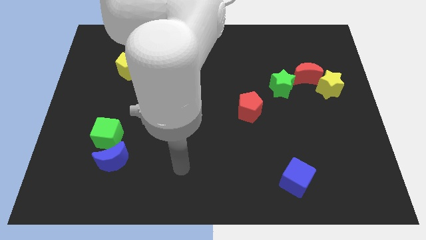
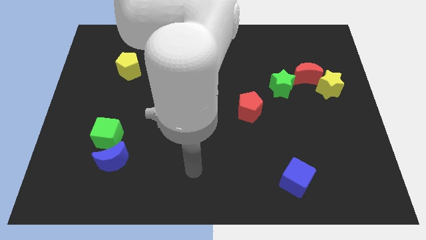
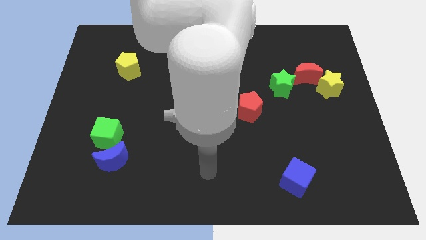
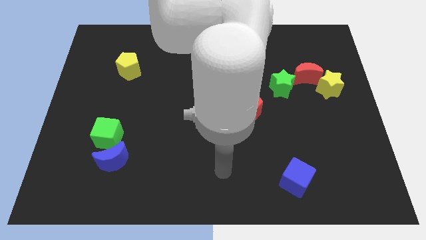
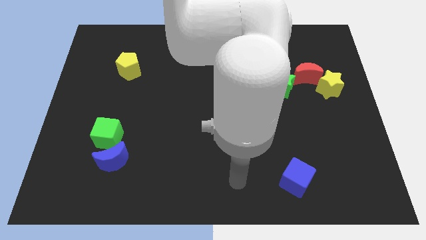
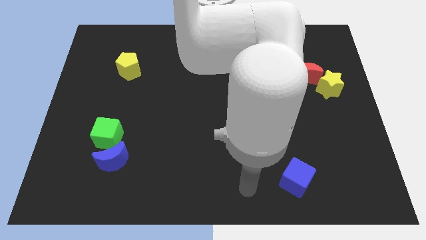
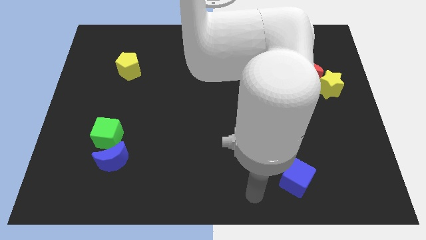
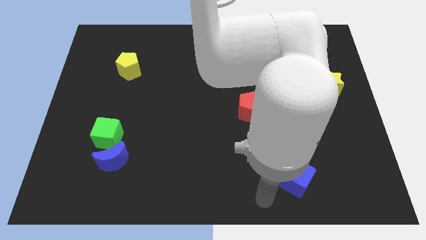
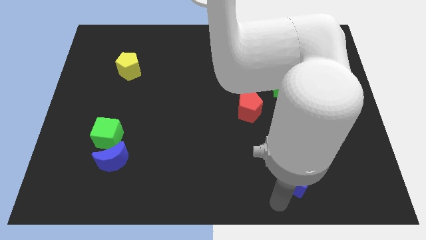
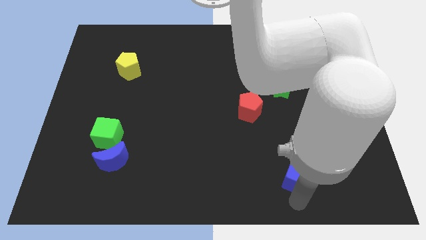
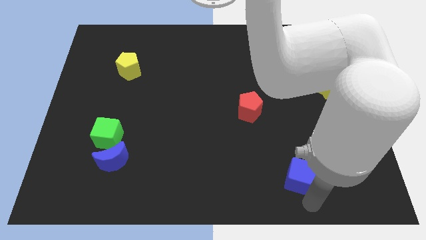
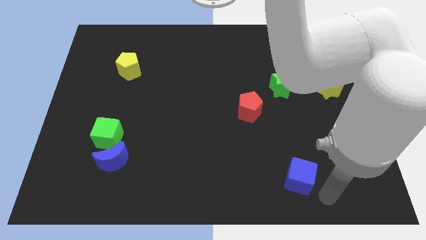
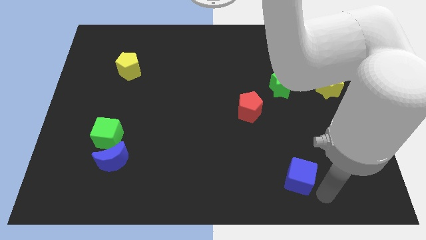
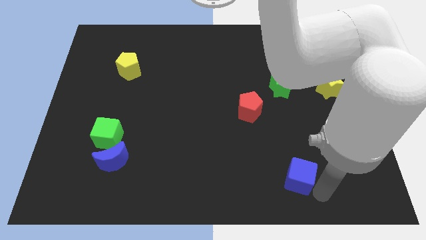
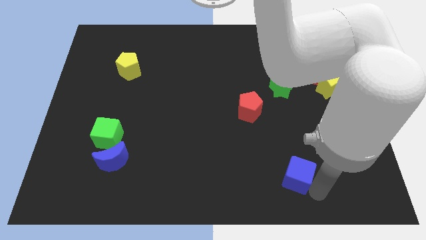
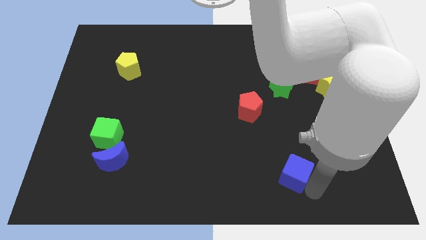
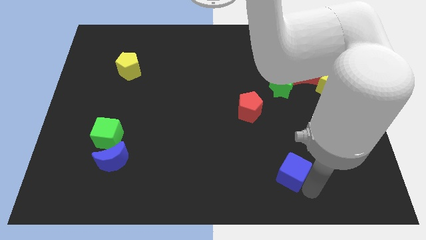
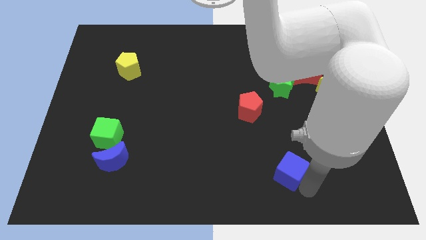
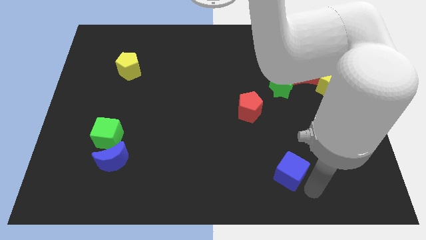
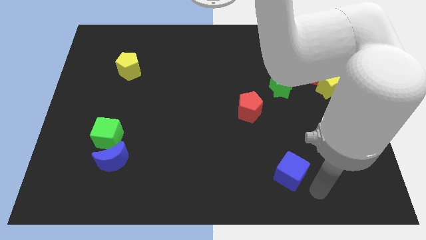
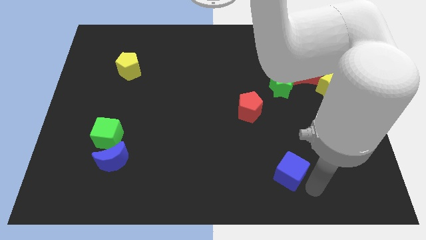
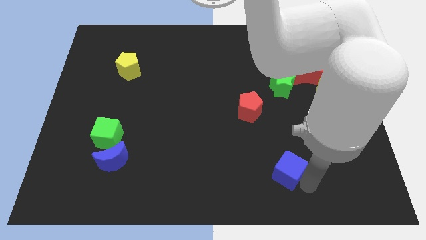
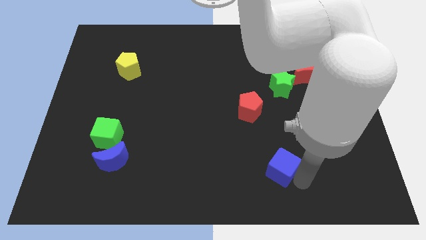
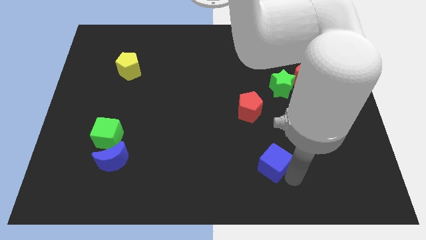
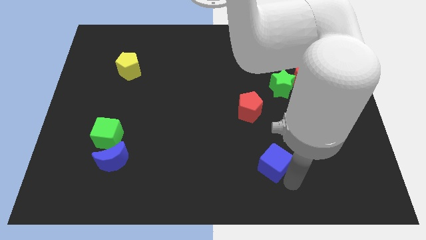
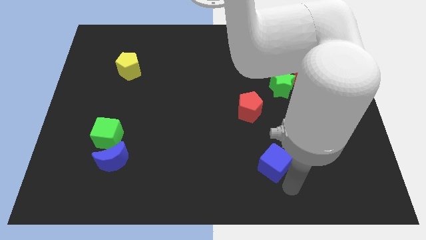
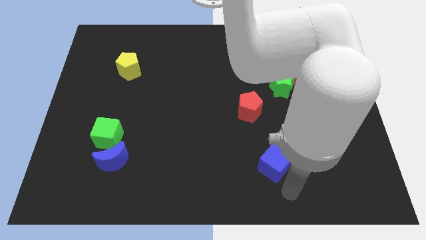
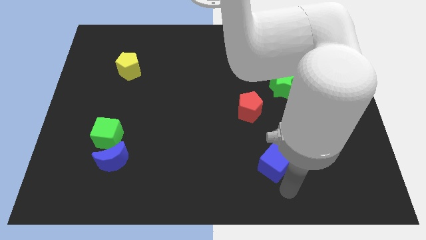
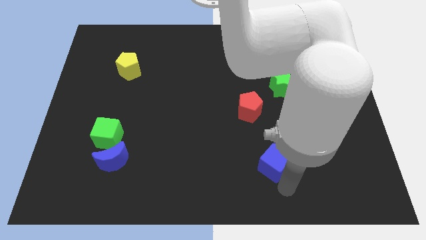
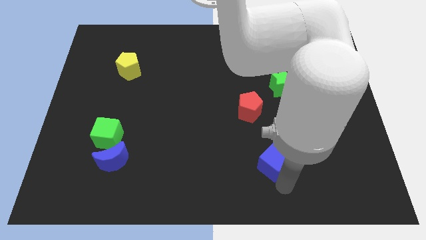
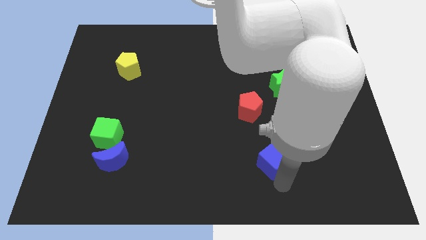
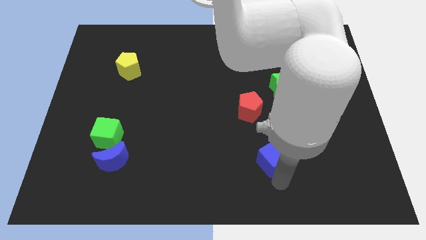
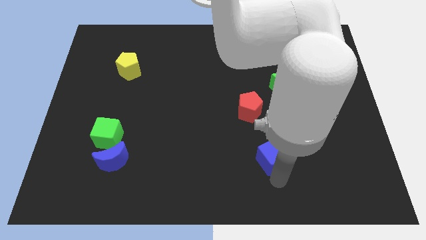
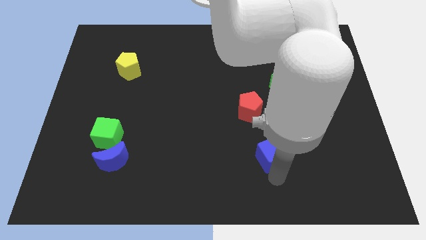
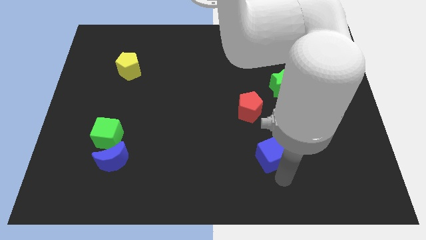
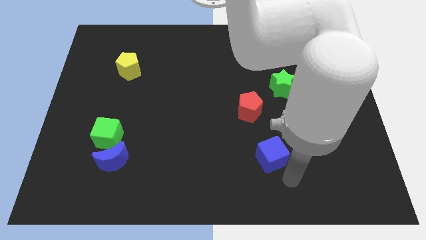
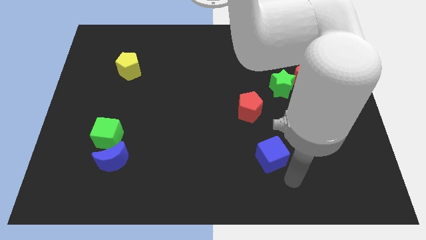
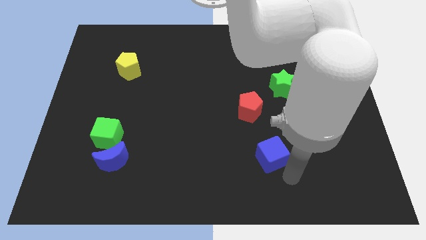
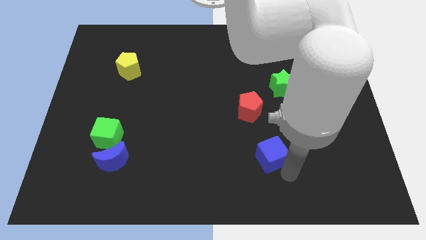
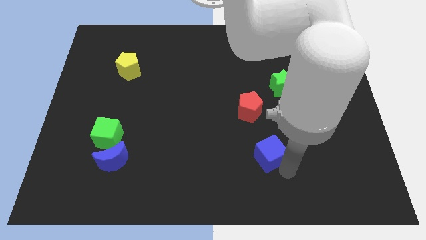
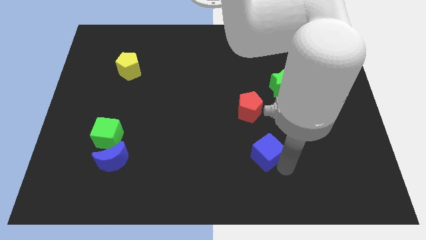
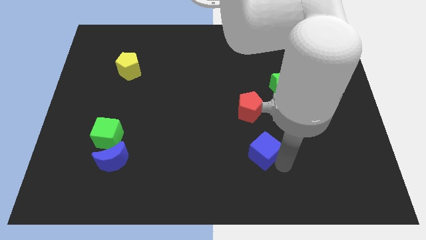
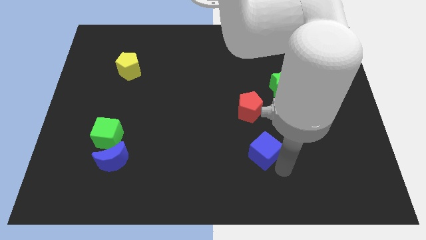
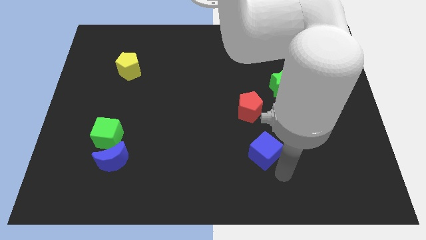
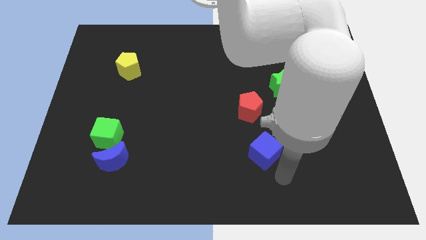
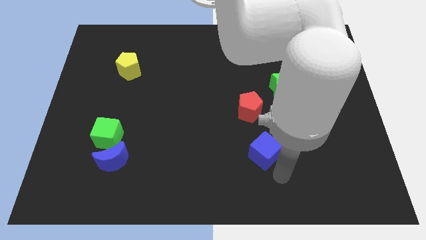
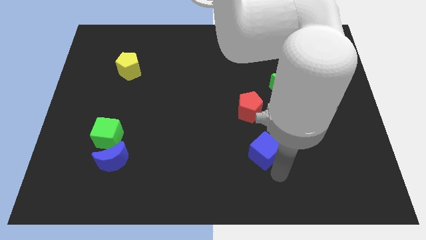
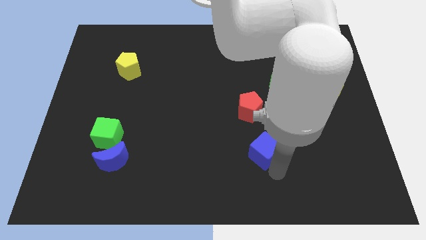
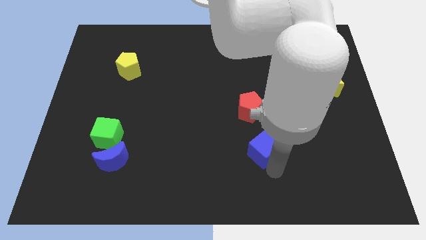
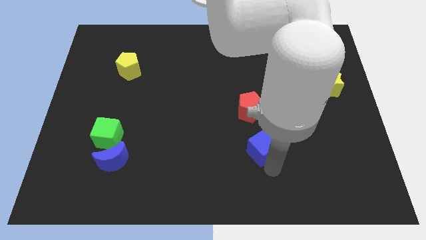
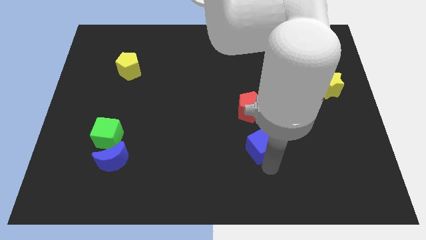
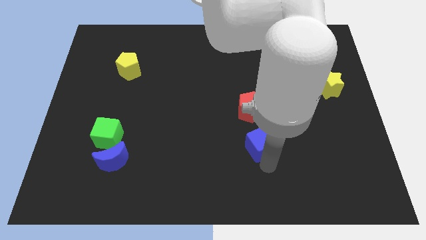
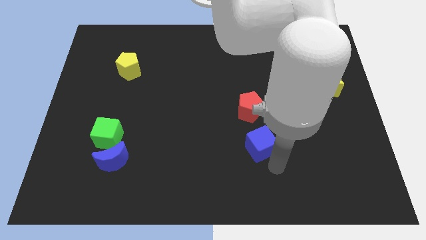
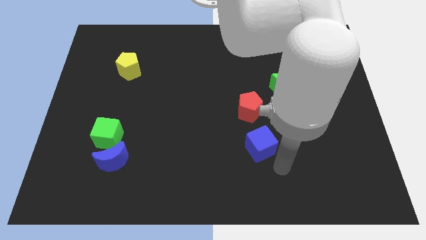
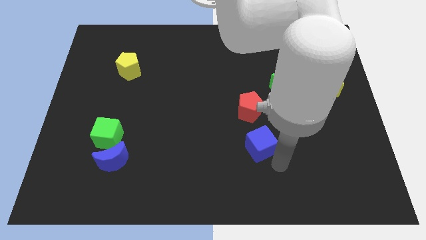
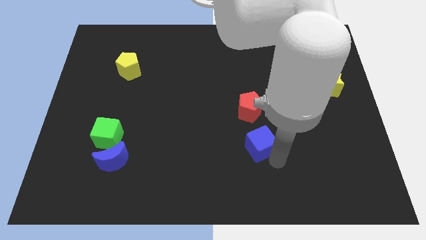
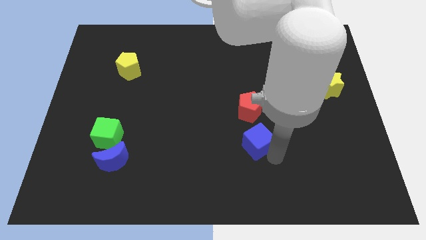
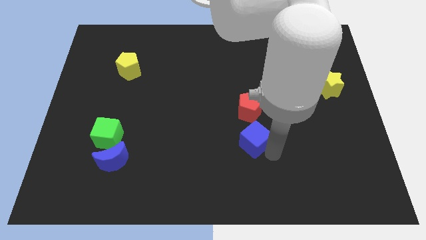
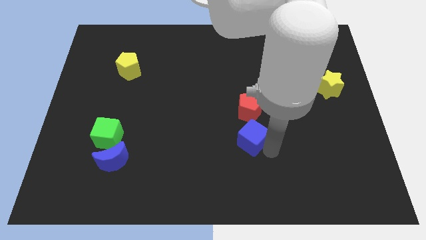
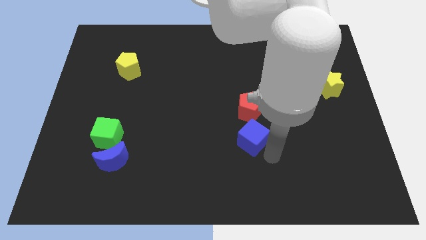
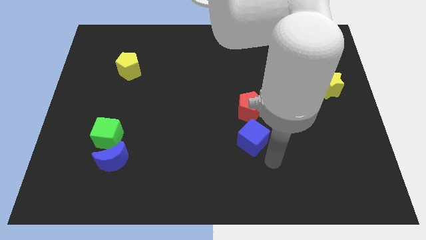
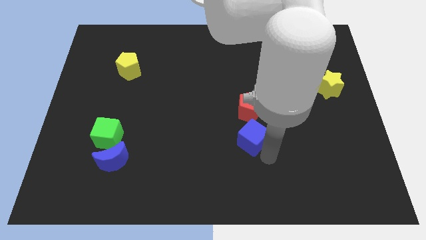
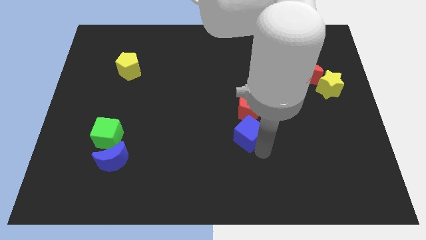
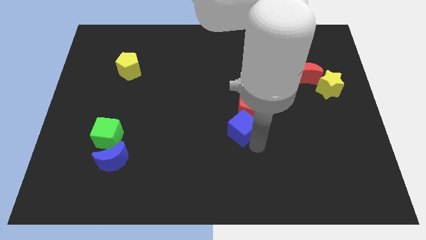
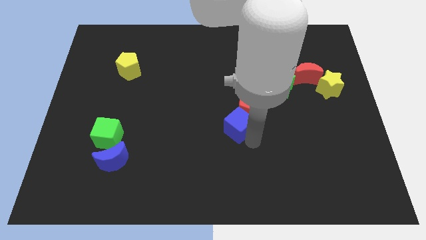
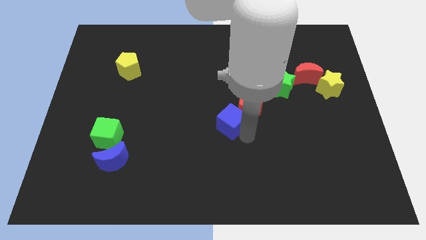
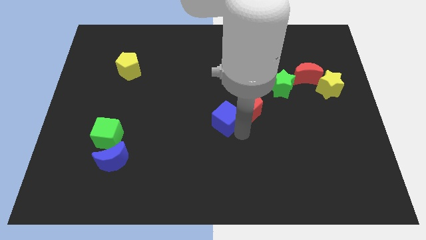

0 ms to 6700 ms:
move the blue cube up and to the left

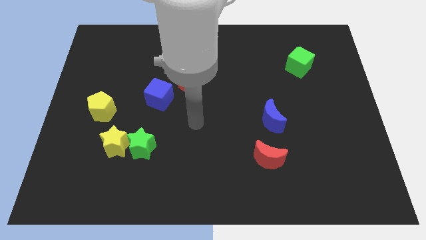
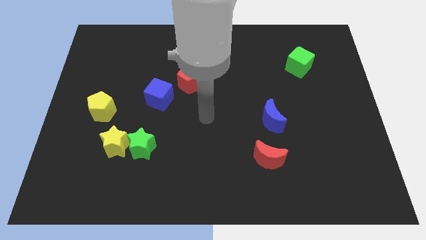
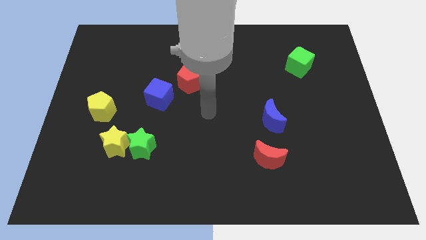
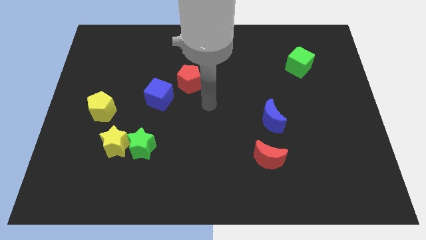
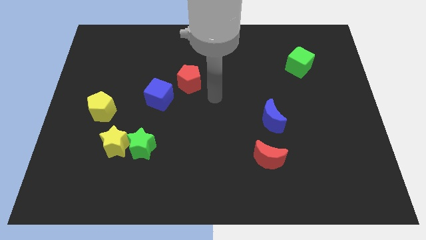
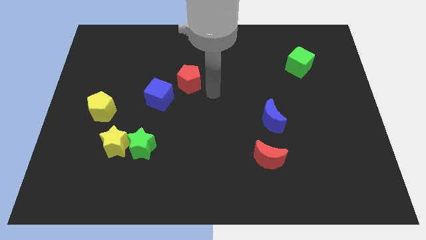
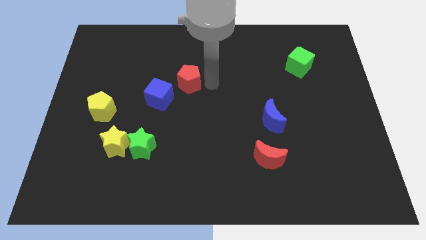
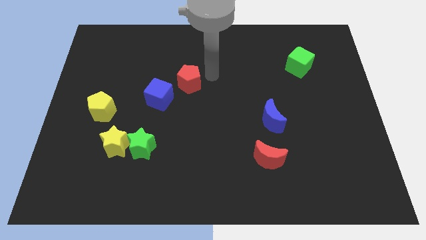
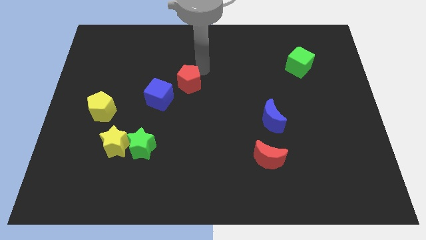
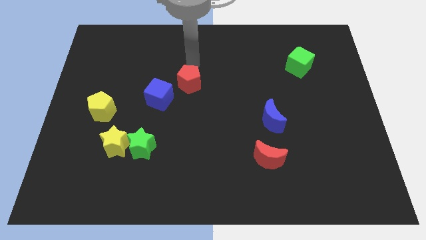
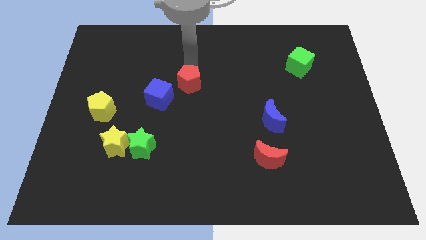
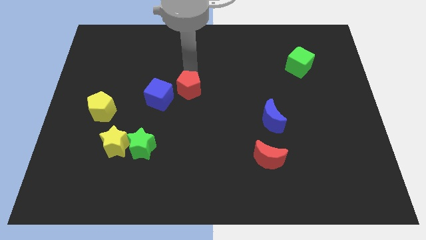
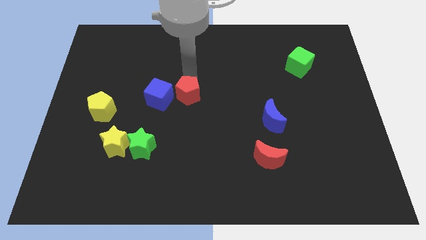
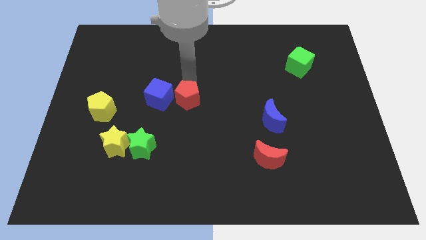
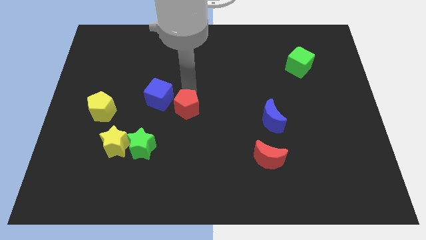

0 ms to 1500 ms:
push the red pentagon down a bit

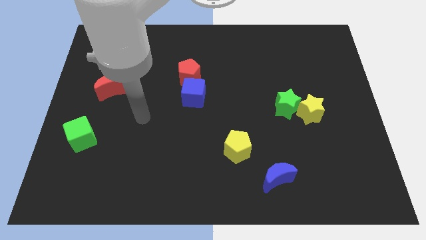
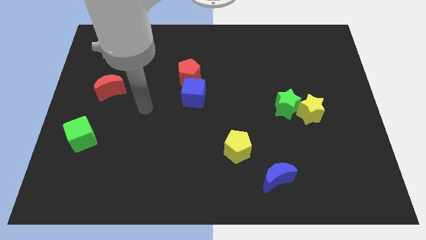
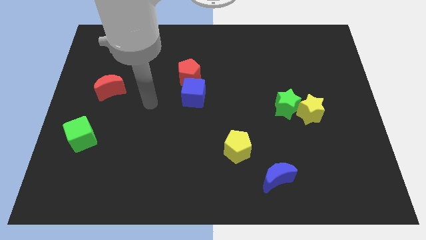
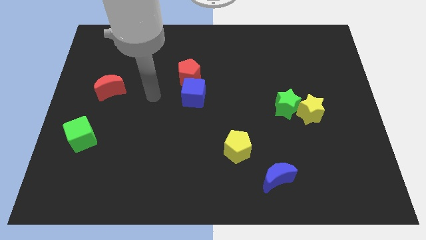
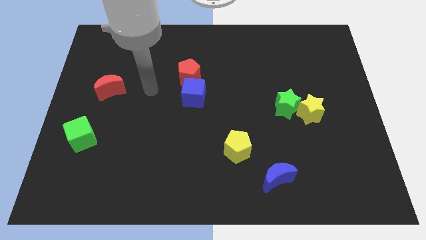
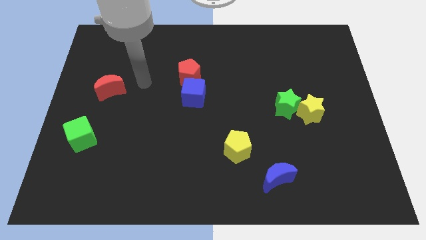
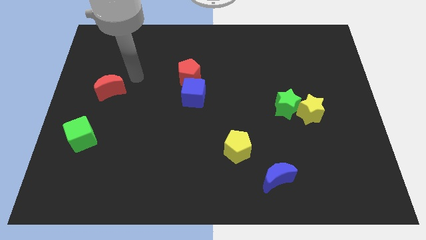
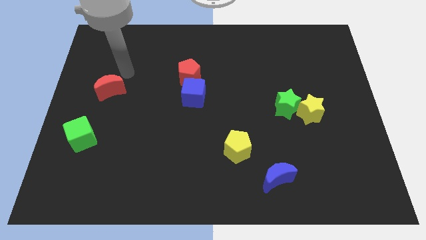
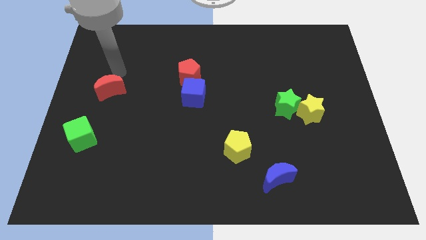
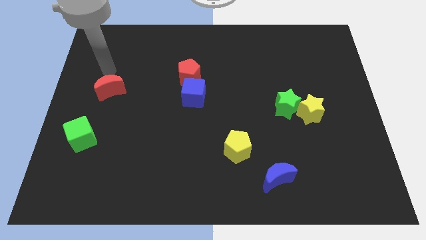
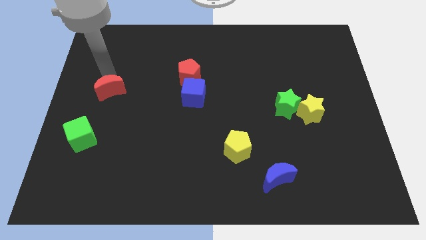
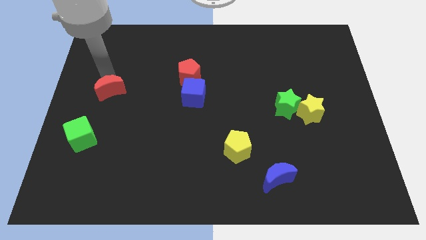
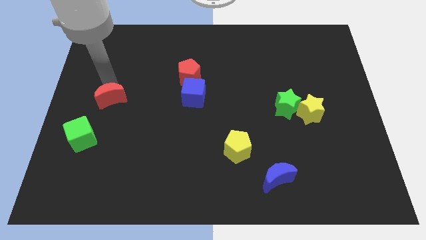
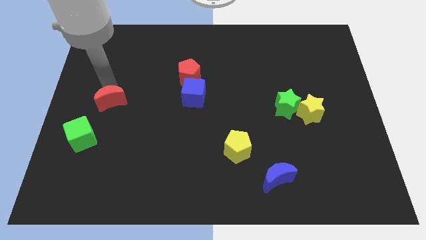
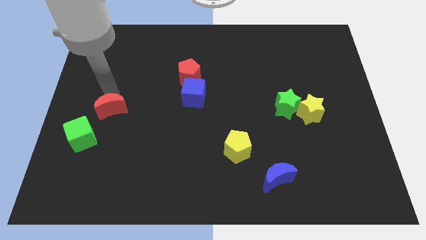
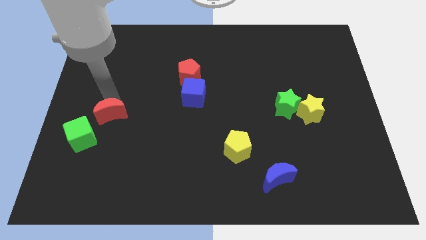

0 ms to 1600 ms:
move the red moon down slightly
